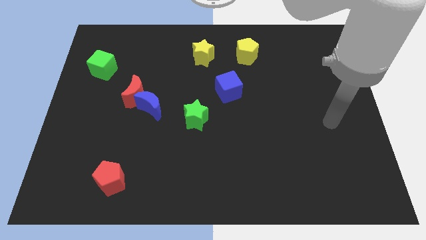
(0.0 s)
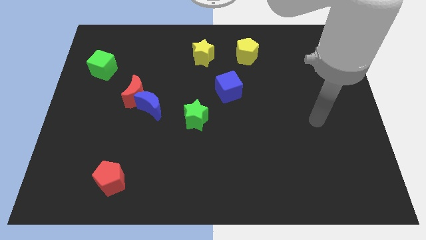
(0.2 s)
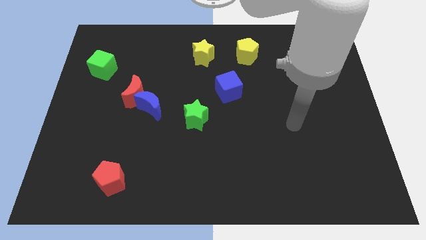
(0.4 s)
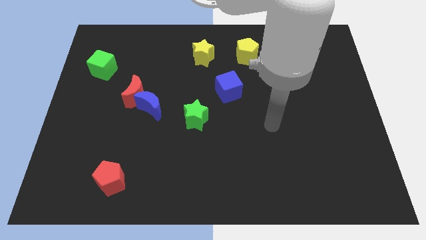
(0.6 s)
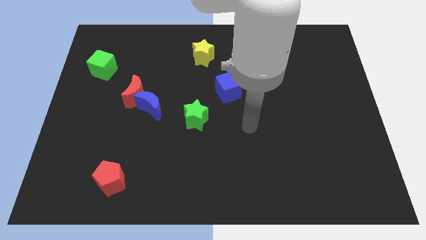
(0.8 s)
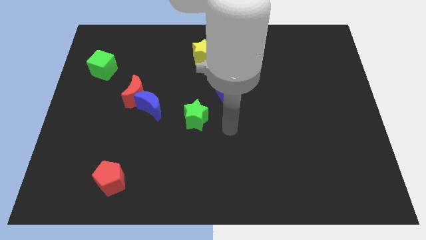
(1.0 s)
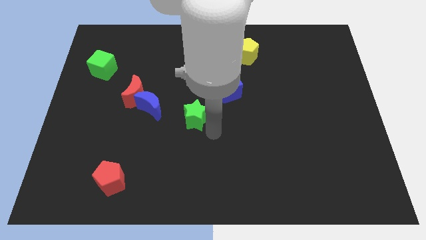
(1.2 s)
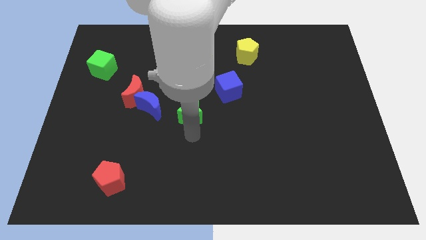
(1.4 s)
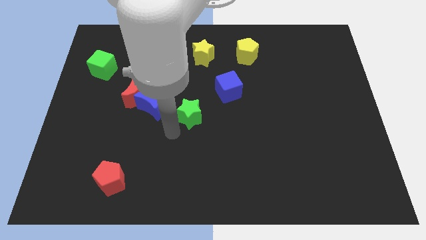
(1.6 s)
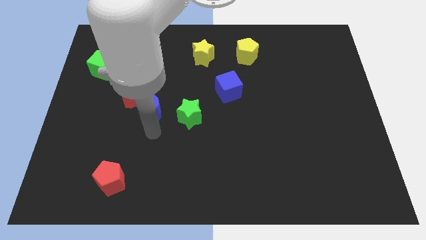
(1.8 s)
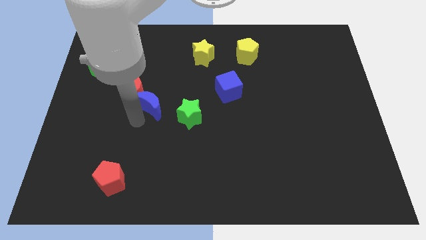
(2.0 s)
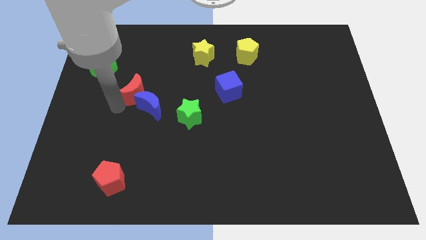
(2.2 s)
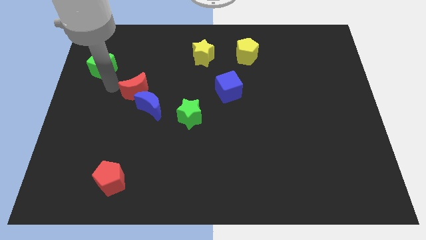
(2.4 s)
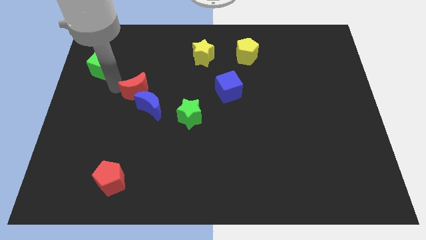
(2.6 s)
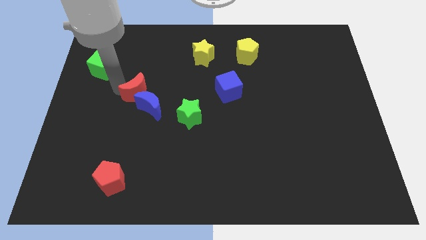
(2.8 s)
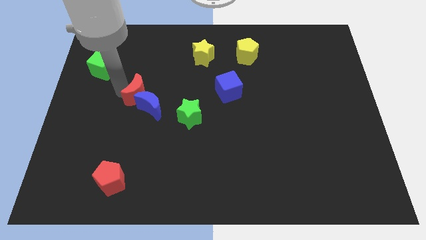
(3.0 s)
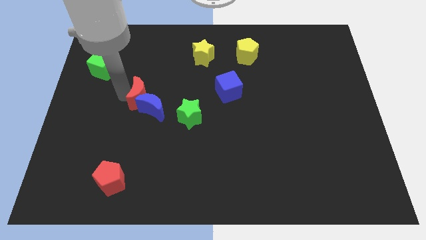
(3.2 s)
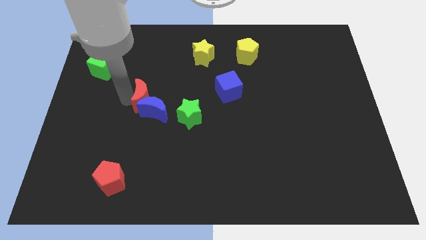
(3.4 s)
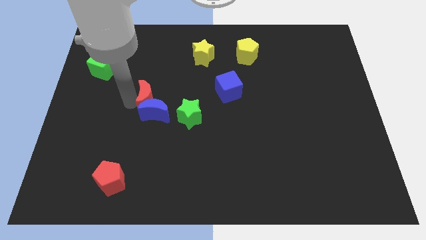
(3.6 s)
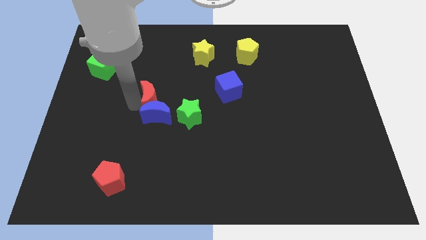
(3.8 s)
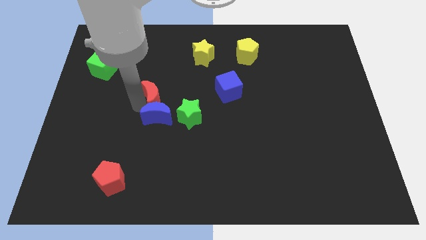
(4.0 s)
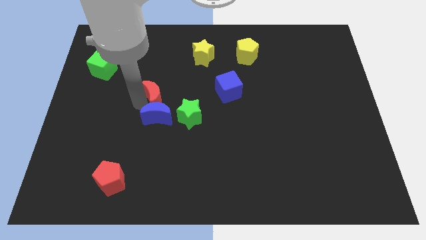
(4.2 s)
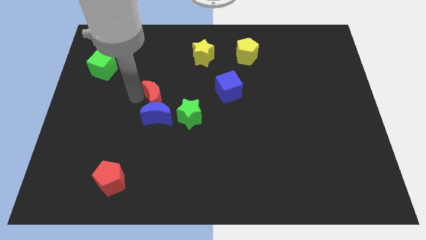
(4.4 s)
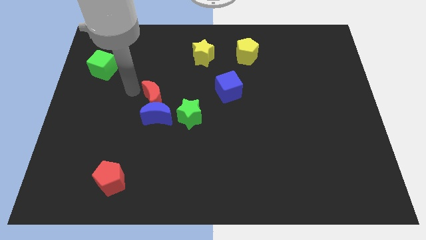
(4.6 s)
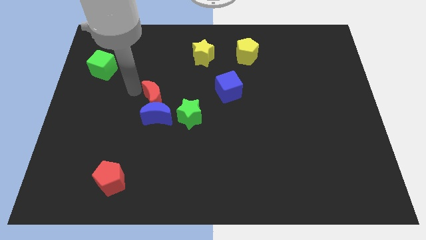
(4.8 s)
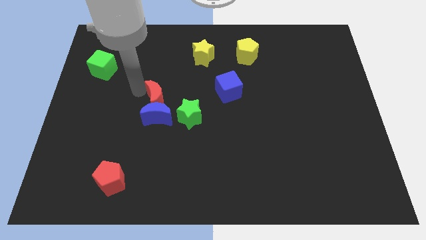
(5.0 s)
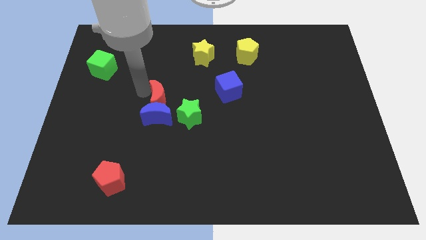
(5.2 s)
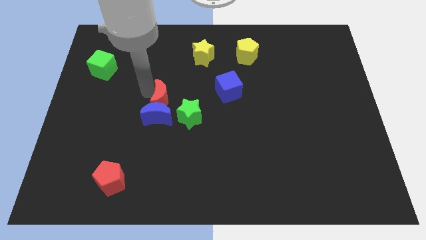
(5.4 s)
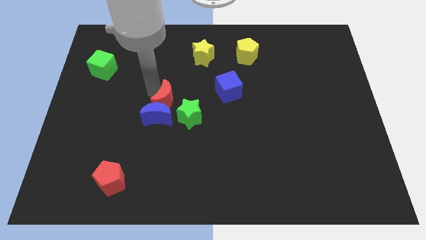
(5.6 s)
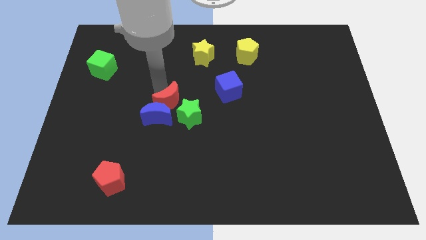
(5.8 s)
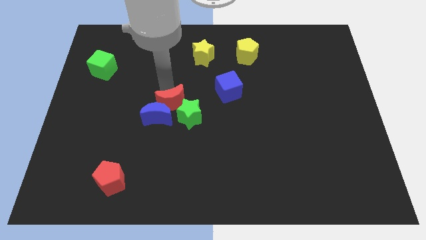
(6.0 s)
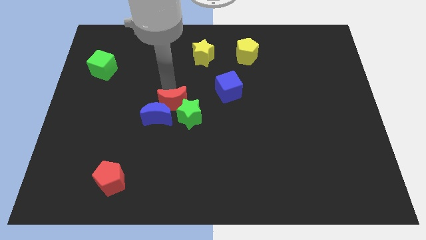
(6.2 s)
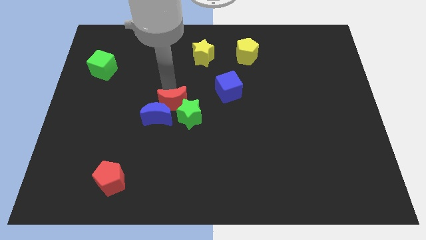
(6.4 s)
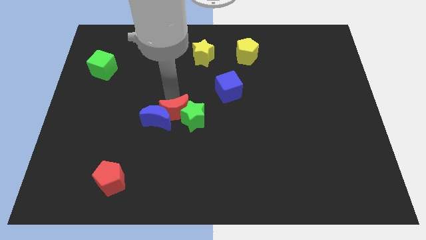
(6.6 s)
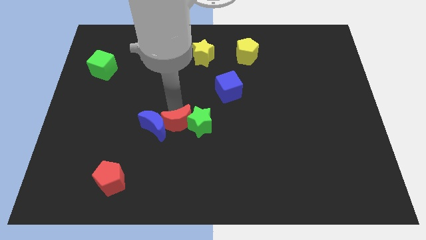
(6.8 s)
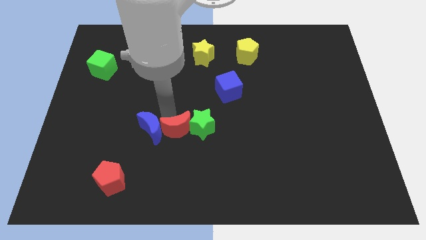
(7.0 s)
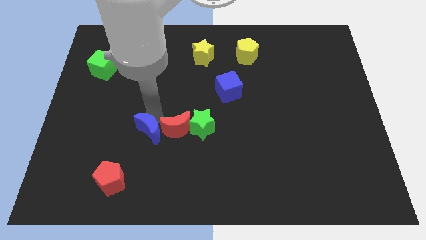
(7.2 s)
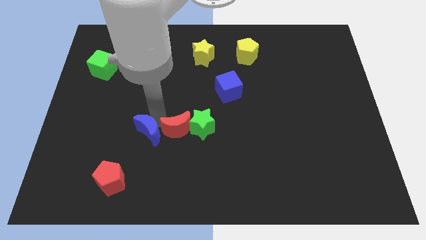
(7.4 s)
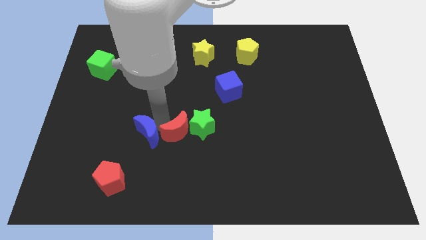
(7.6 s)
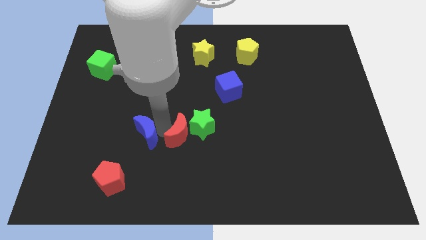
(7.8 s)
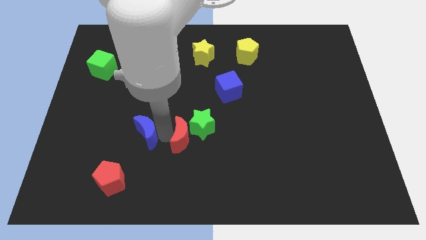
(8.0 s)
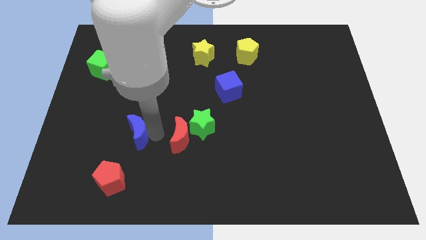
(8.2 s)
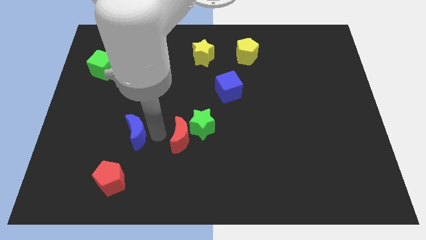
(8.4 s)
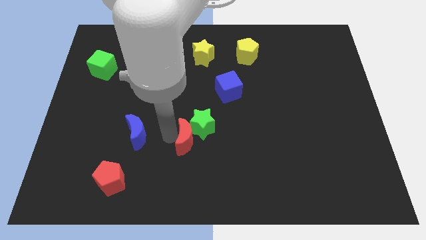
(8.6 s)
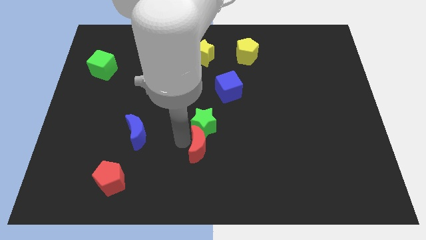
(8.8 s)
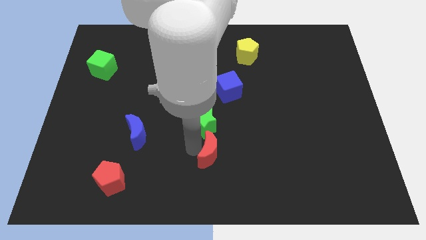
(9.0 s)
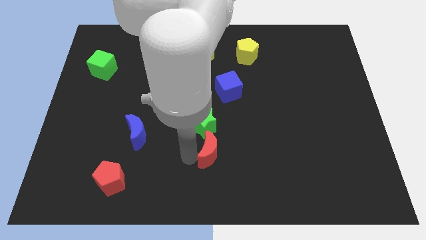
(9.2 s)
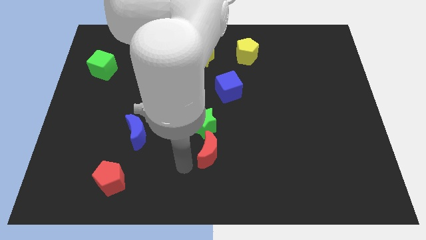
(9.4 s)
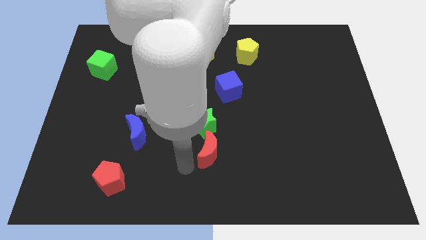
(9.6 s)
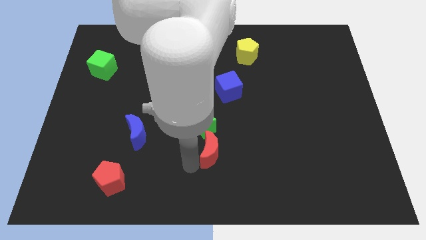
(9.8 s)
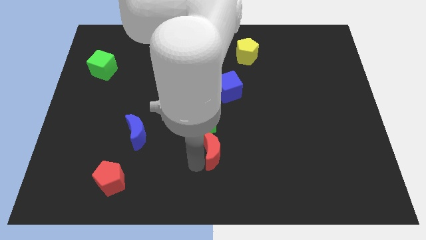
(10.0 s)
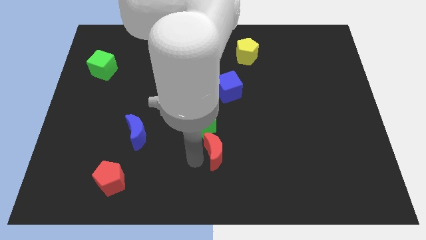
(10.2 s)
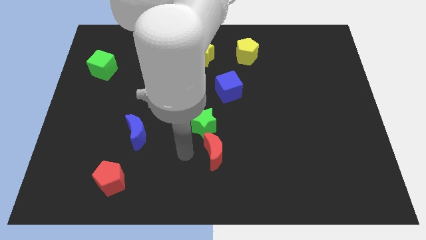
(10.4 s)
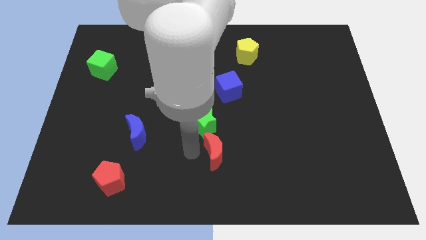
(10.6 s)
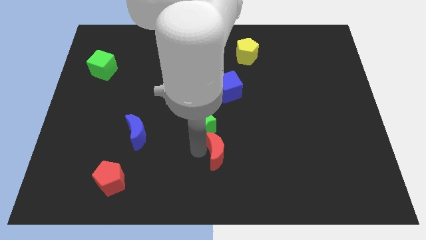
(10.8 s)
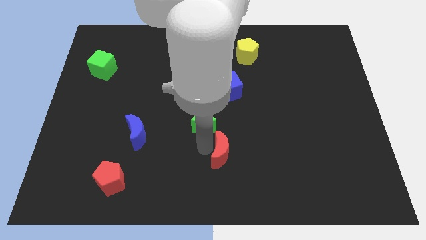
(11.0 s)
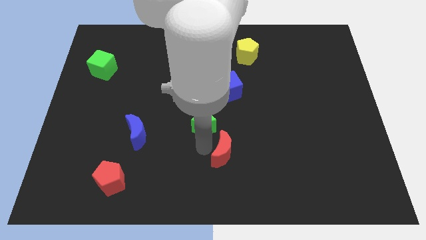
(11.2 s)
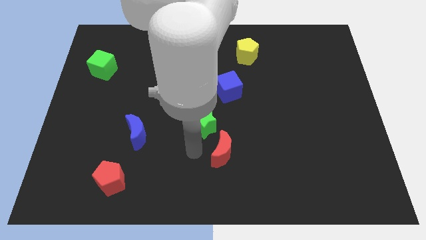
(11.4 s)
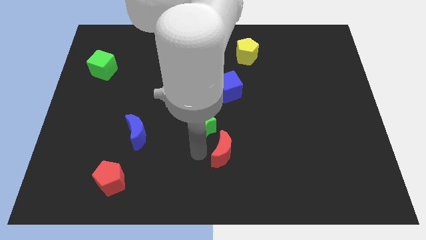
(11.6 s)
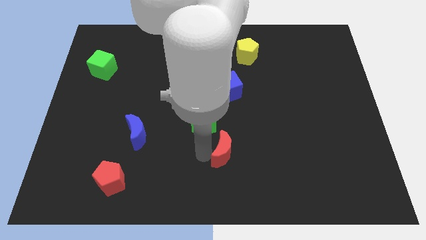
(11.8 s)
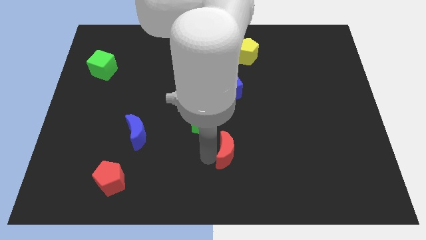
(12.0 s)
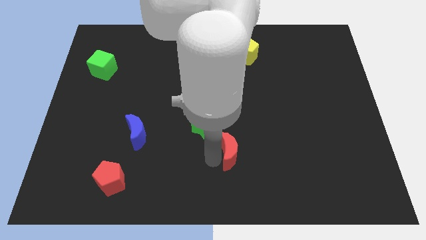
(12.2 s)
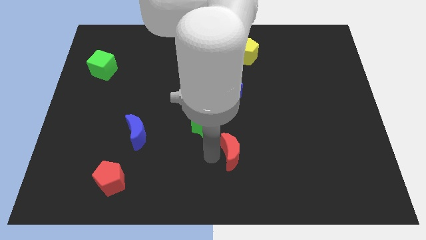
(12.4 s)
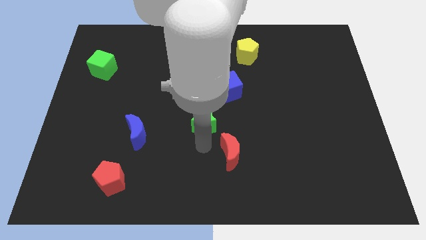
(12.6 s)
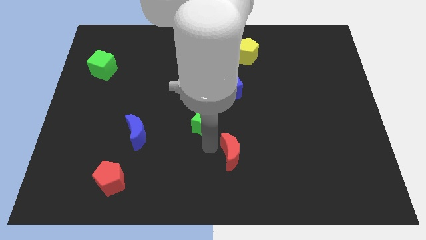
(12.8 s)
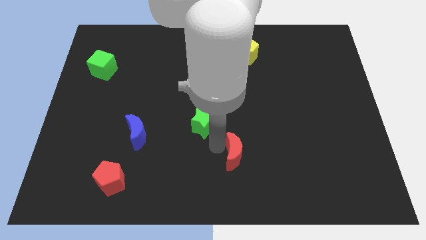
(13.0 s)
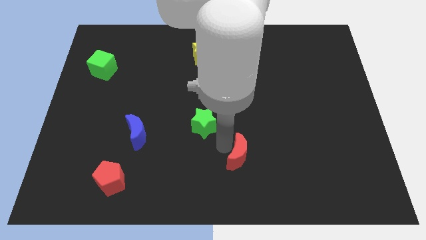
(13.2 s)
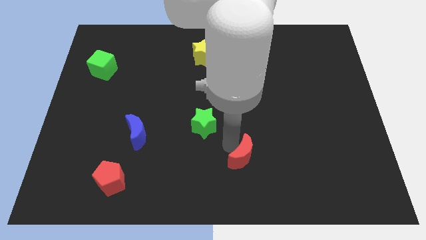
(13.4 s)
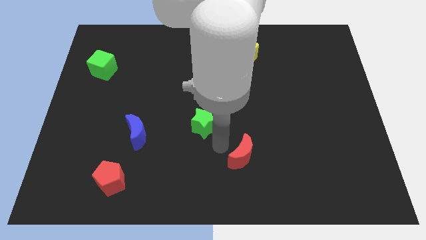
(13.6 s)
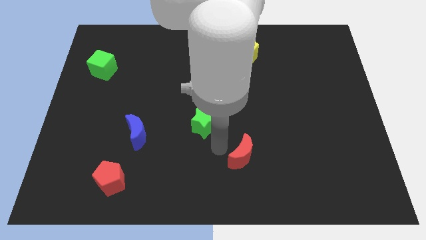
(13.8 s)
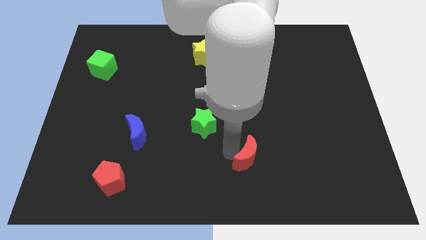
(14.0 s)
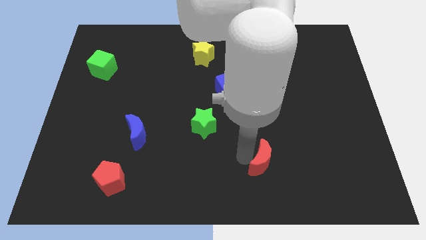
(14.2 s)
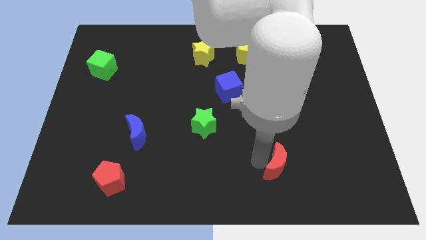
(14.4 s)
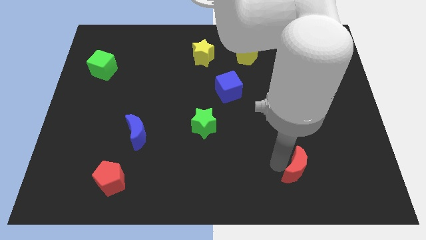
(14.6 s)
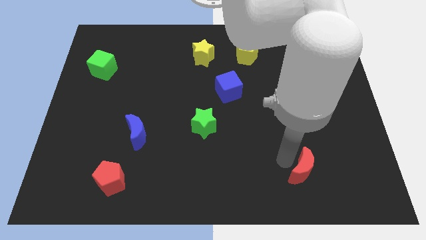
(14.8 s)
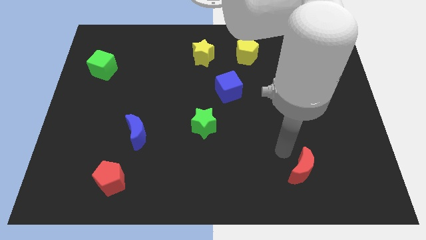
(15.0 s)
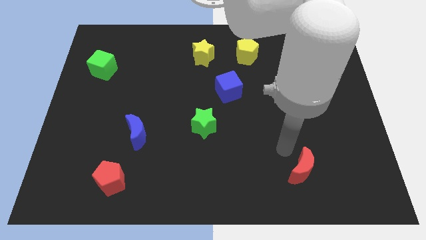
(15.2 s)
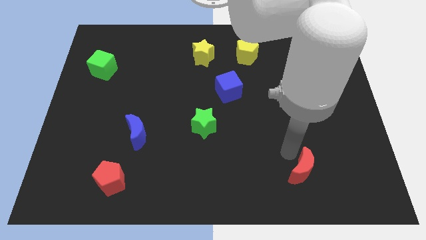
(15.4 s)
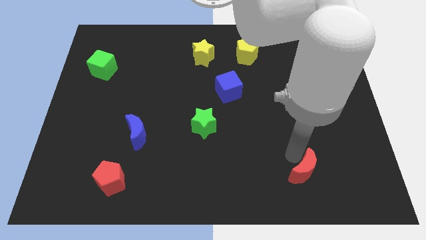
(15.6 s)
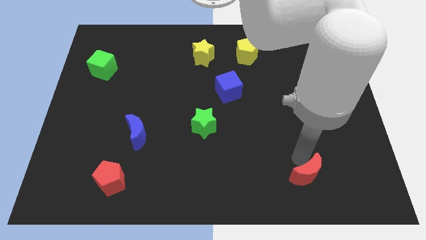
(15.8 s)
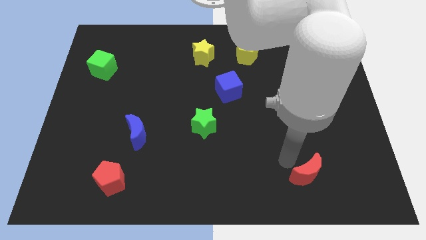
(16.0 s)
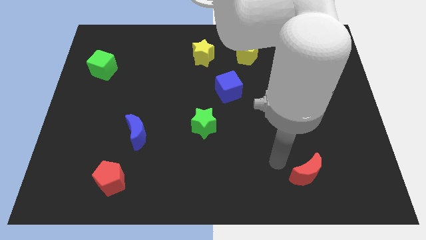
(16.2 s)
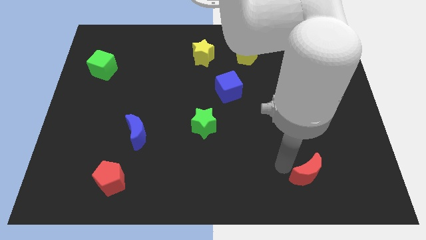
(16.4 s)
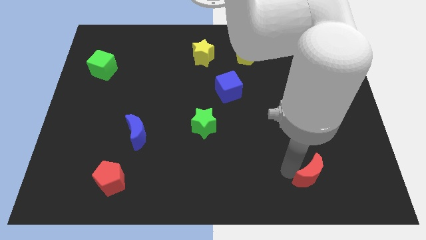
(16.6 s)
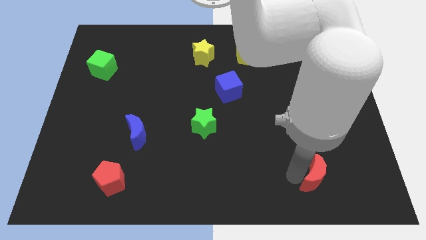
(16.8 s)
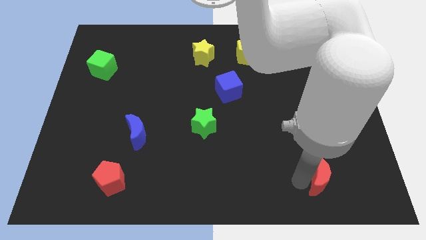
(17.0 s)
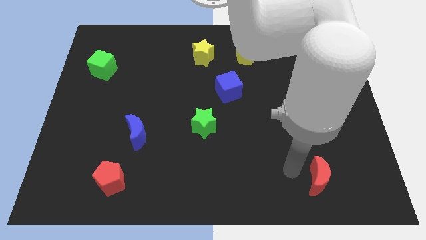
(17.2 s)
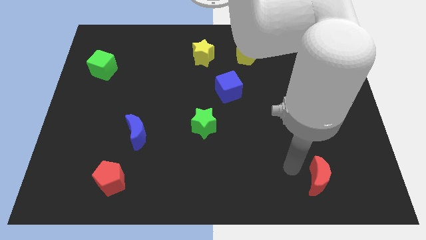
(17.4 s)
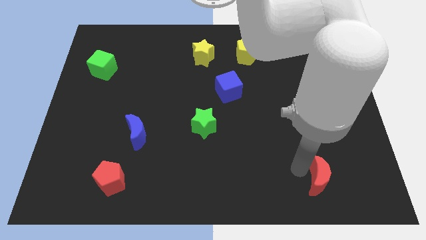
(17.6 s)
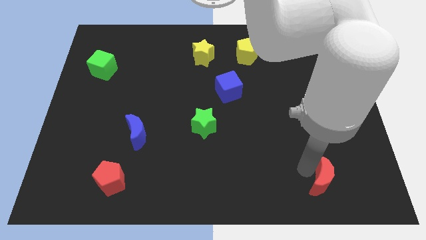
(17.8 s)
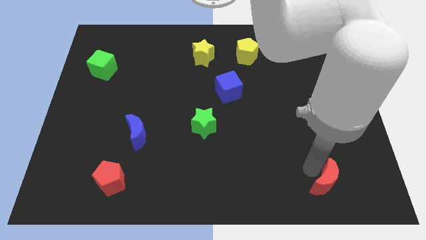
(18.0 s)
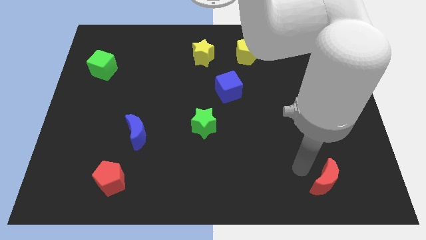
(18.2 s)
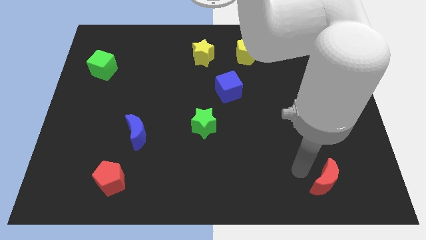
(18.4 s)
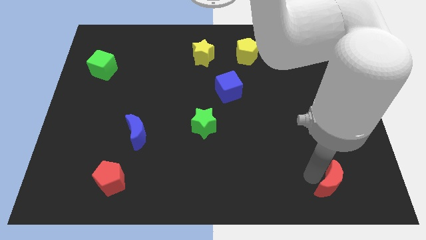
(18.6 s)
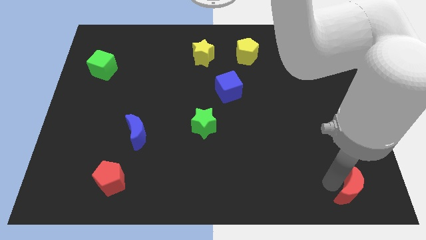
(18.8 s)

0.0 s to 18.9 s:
move the red moon to the bottom right
